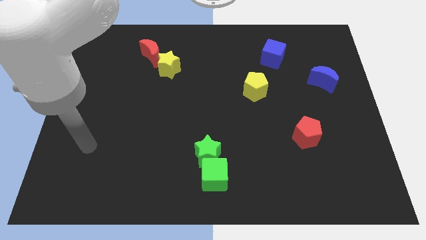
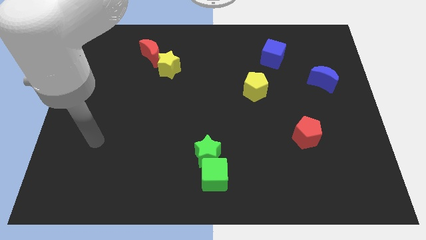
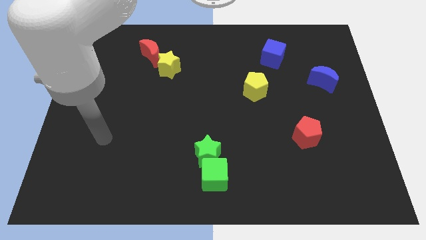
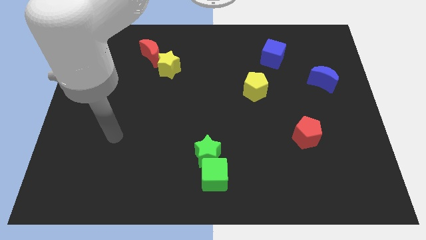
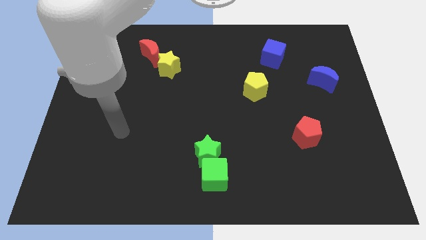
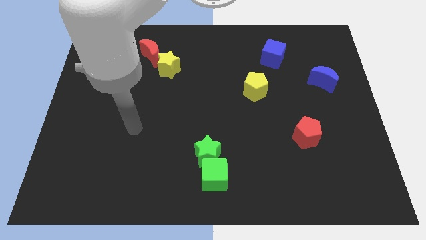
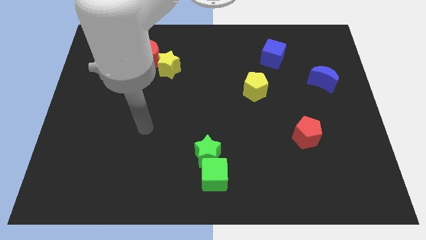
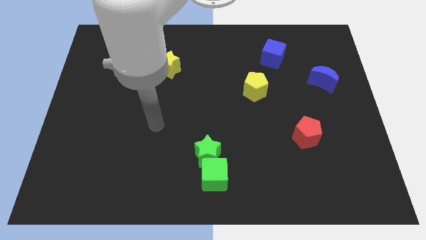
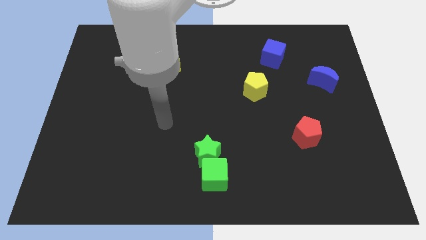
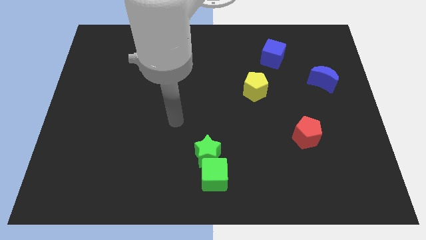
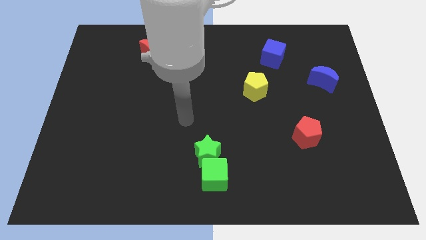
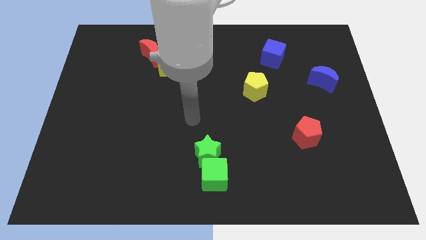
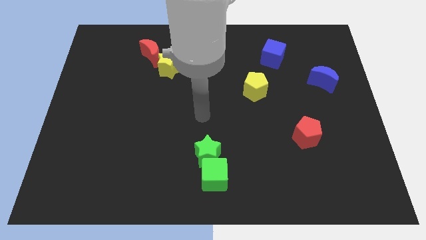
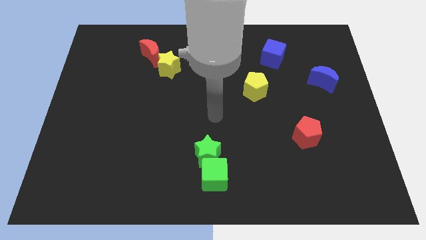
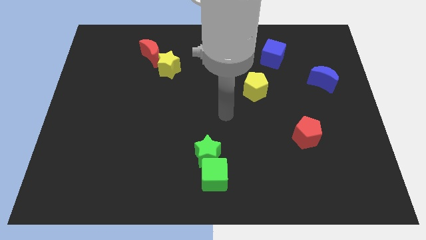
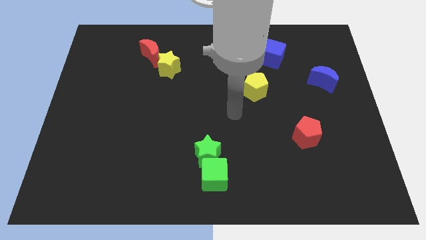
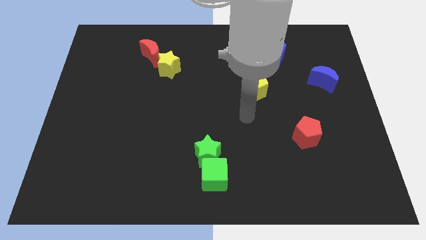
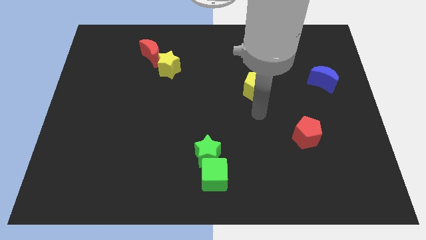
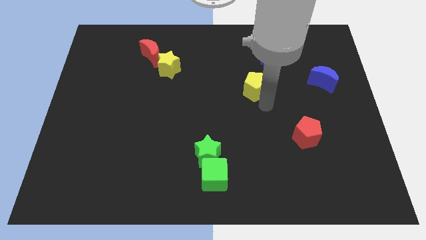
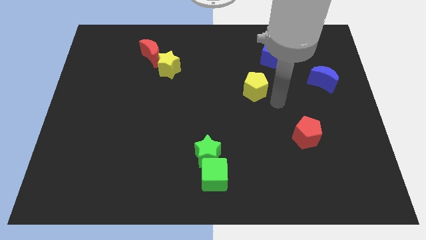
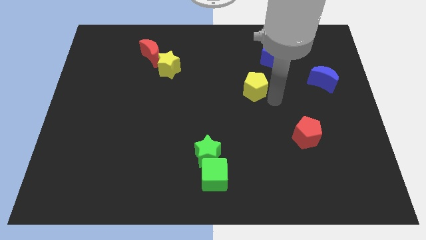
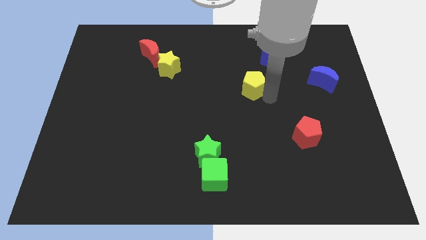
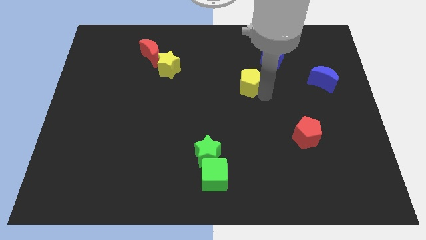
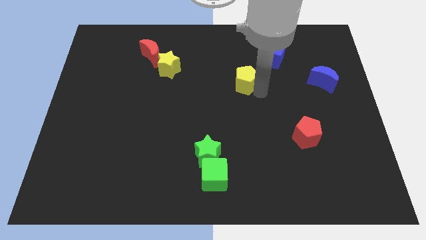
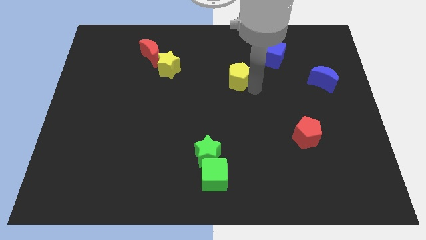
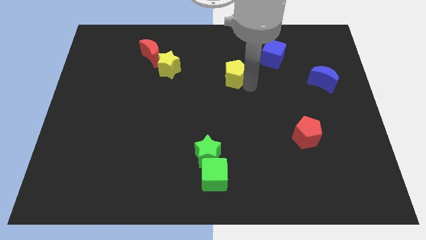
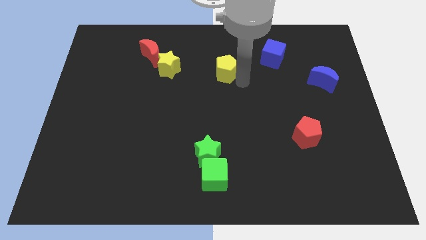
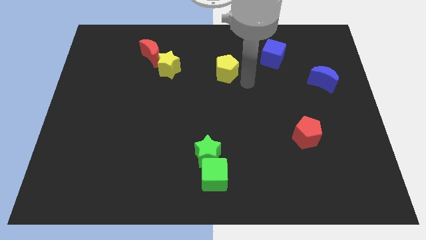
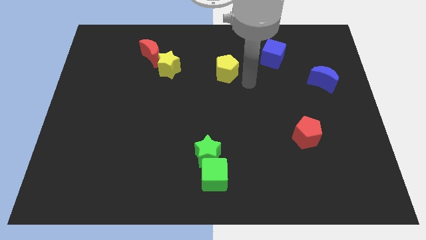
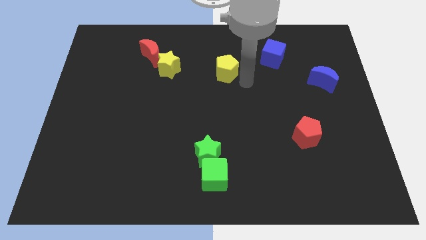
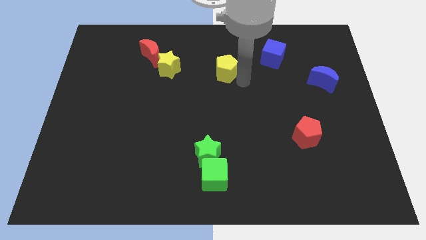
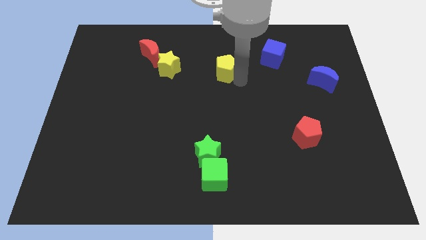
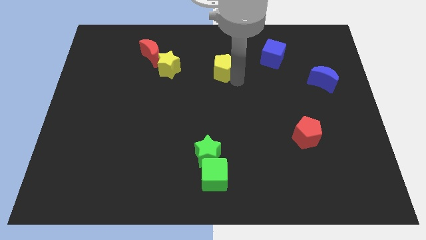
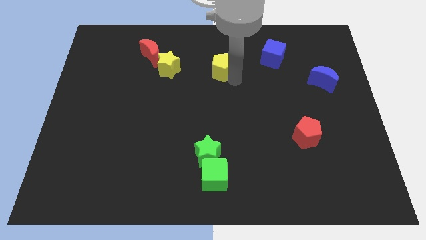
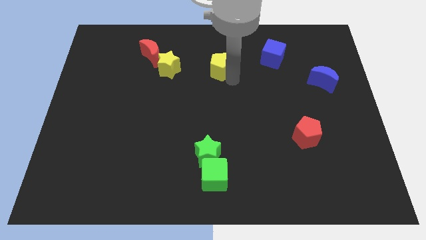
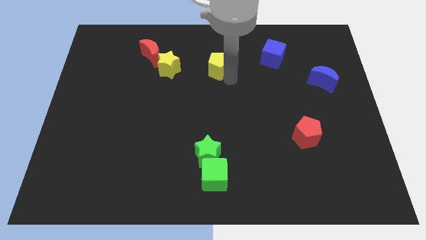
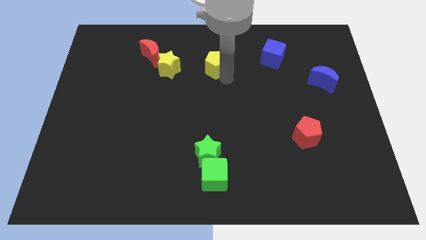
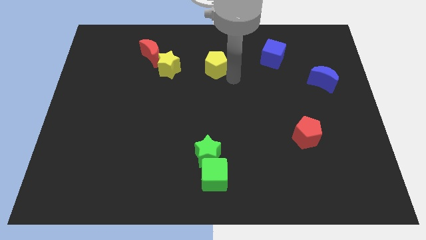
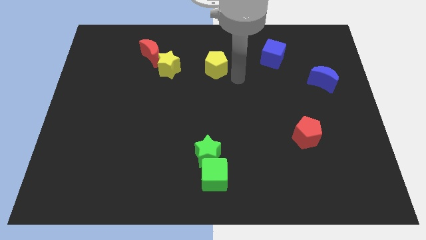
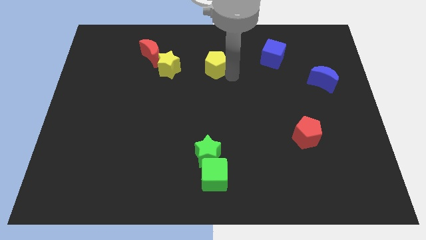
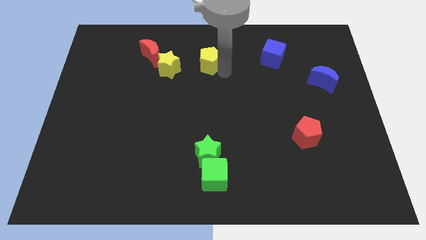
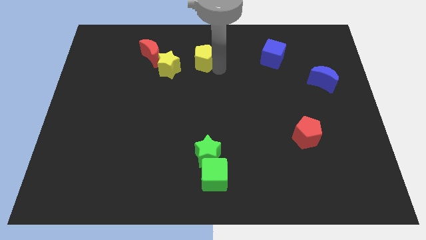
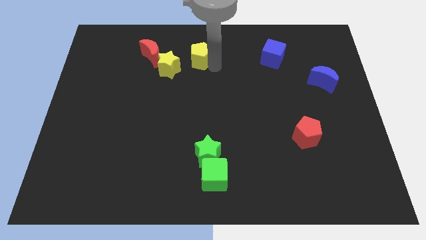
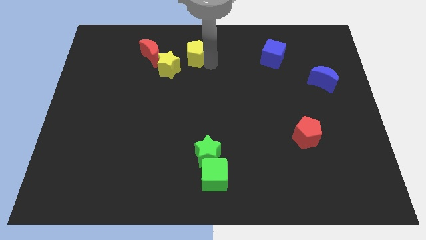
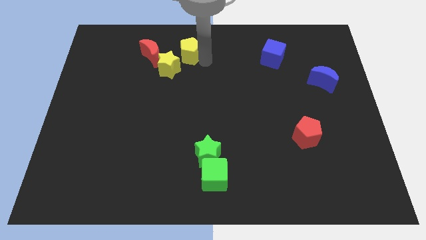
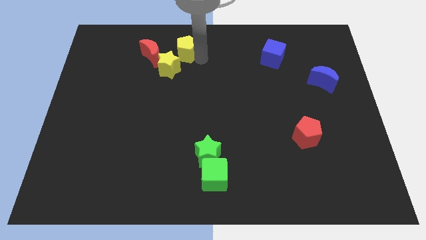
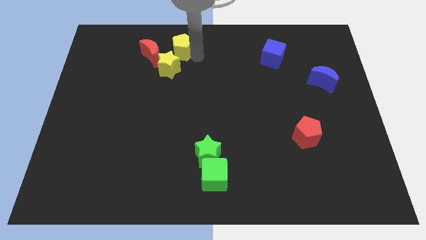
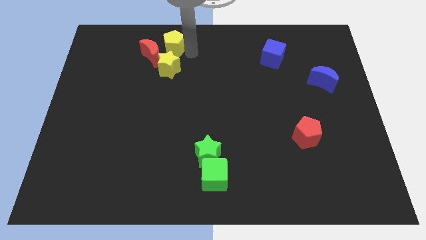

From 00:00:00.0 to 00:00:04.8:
slide the yellow pentagon to the red moon

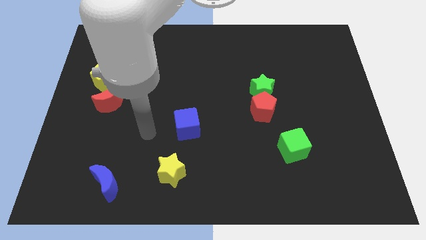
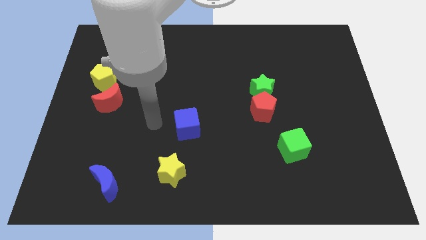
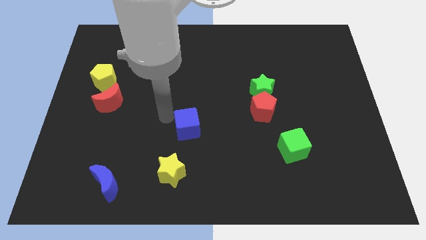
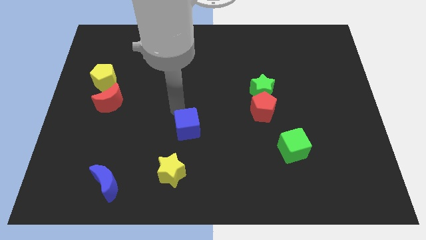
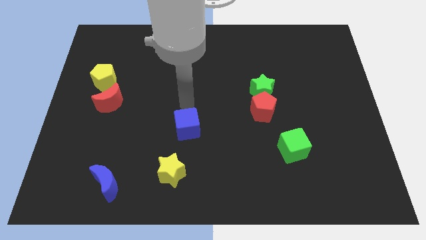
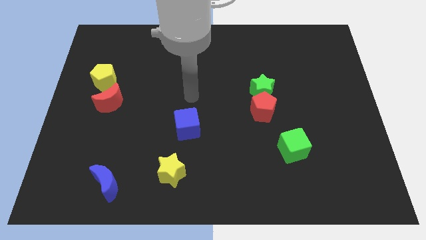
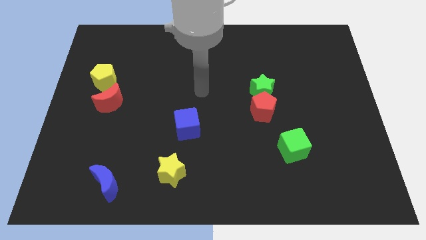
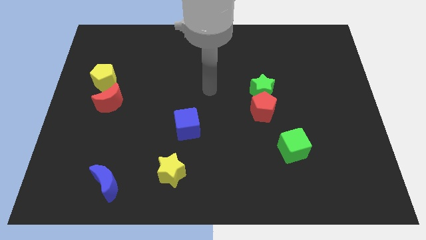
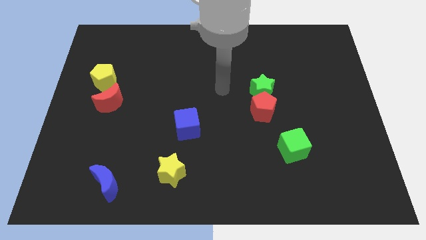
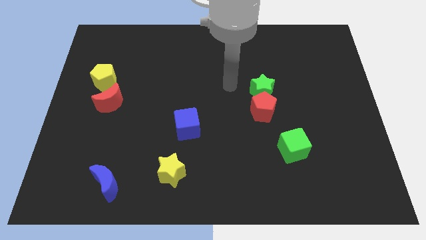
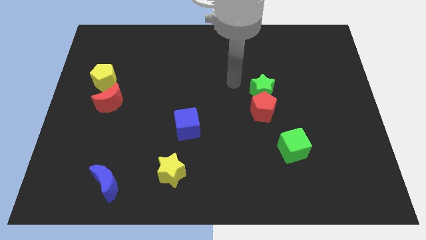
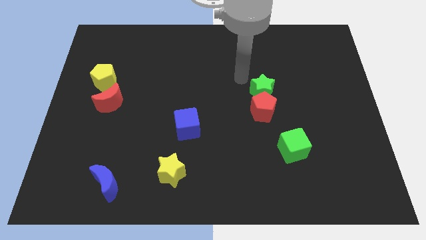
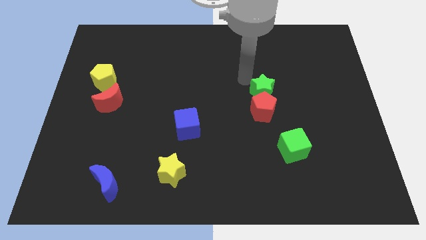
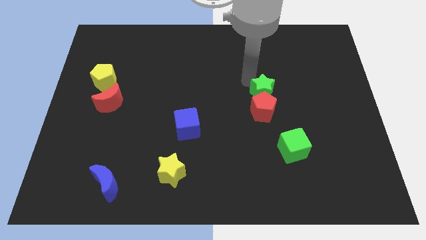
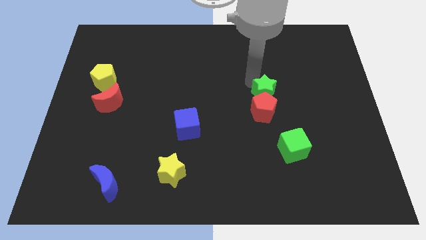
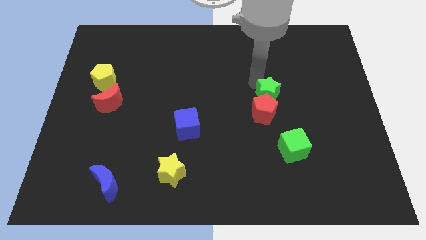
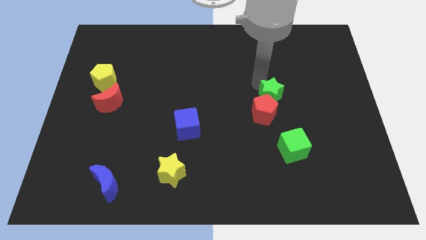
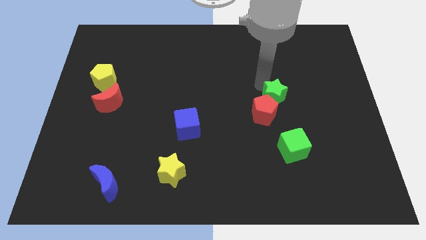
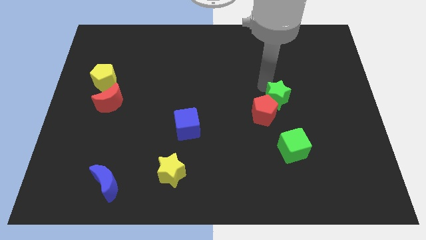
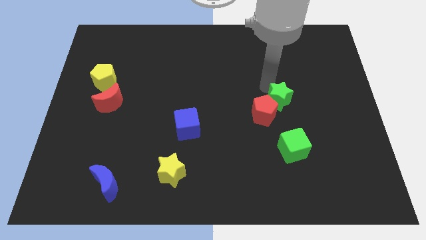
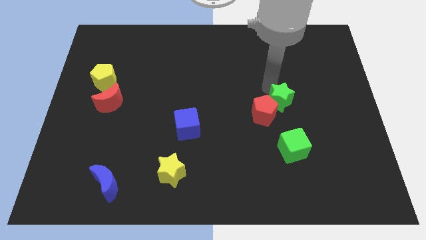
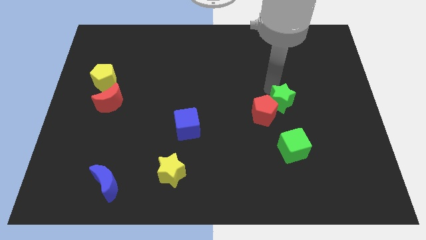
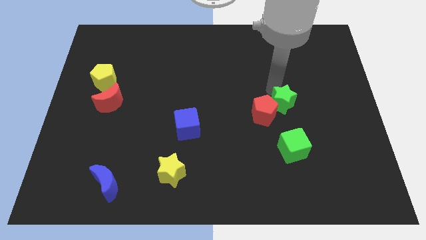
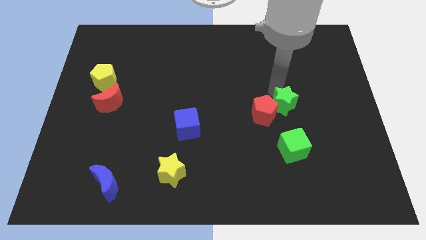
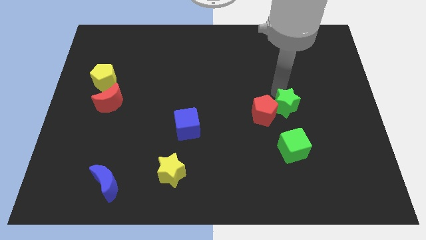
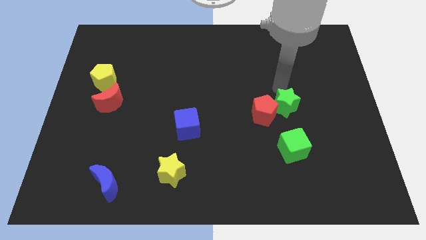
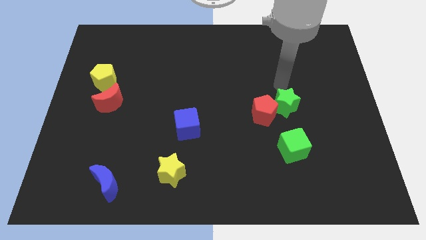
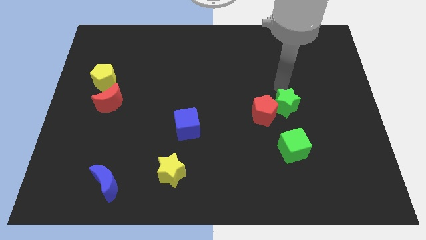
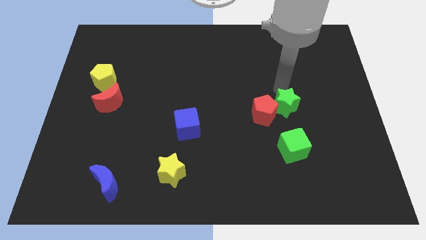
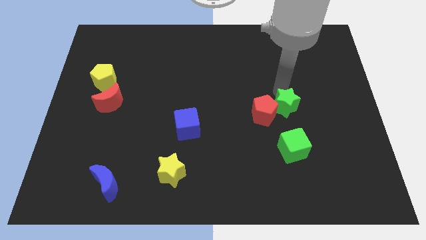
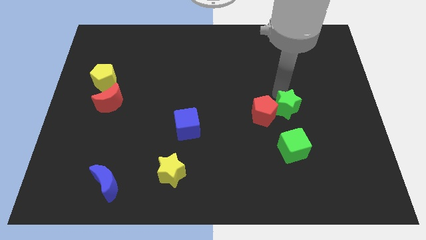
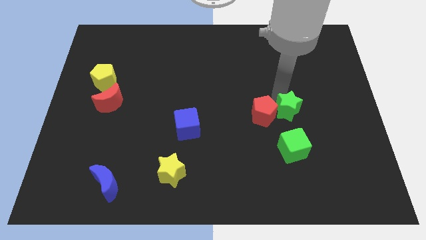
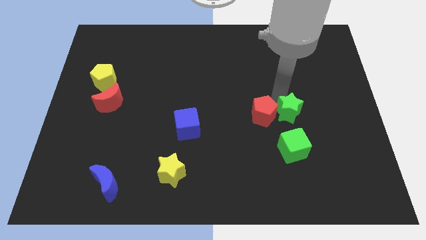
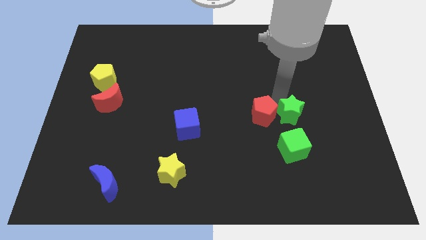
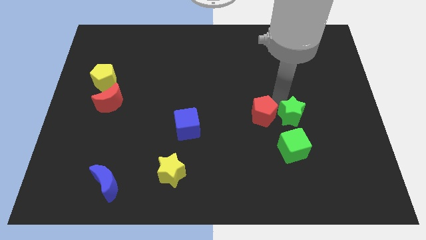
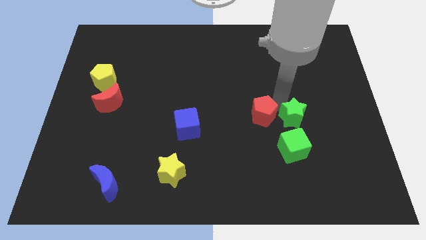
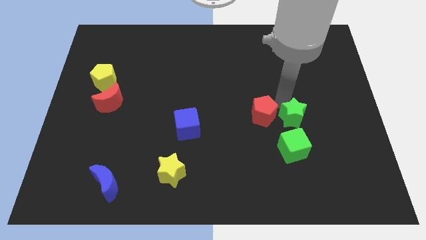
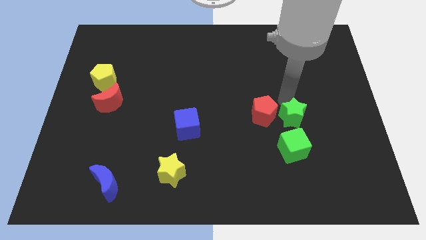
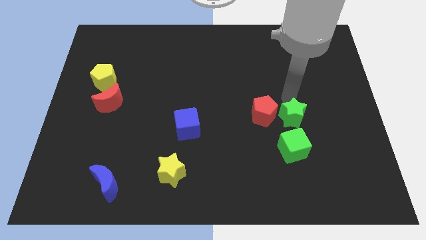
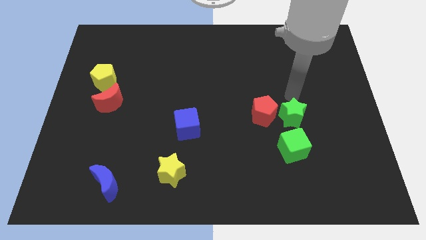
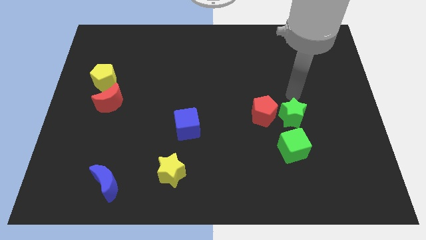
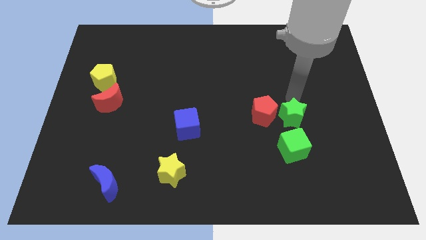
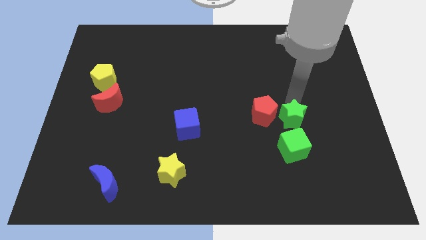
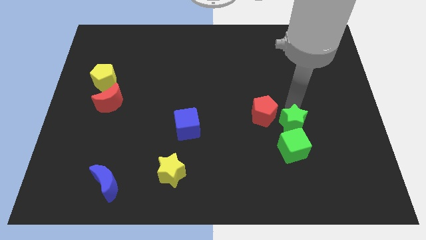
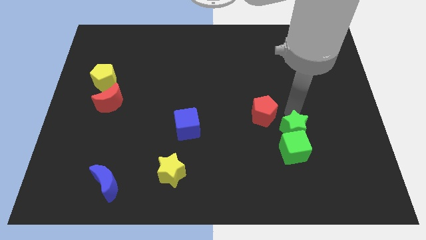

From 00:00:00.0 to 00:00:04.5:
slide the green star next to the green cube
